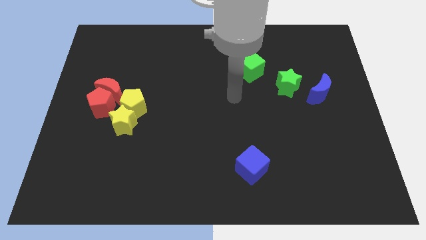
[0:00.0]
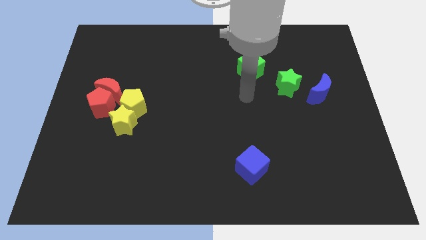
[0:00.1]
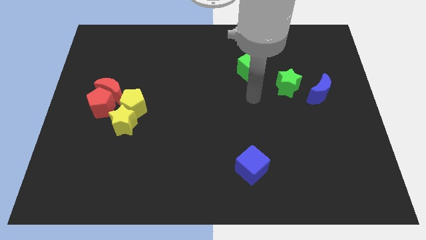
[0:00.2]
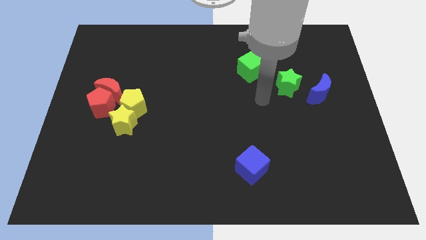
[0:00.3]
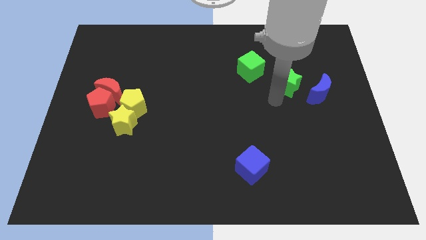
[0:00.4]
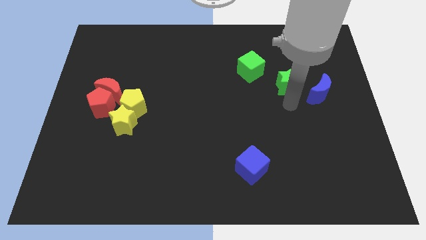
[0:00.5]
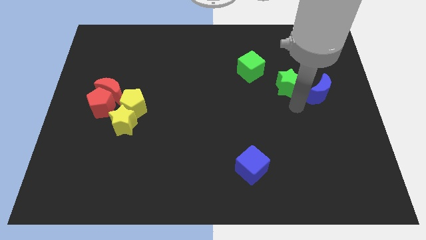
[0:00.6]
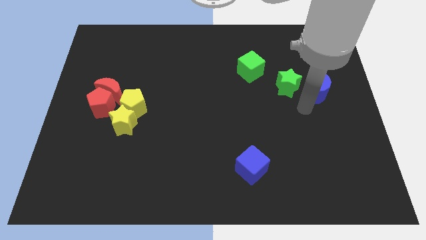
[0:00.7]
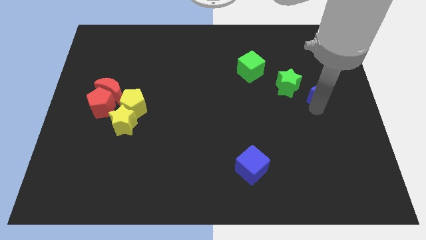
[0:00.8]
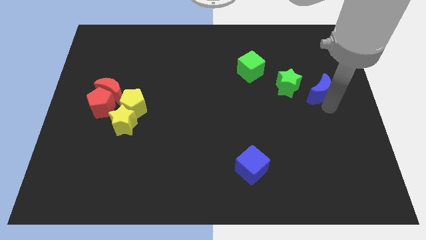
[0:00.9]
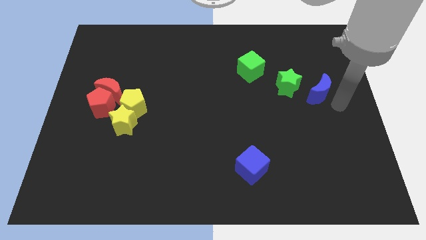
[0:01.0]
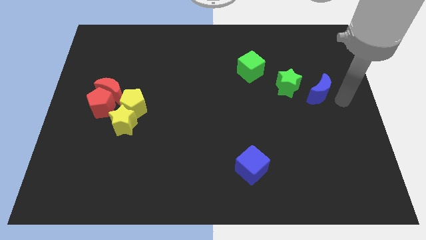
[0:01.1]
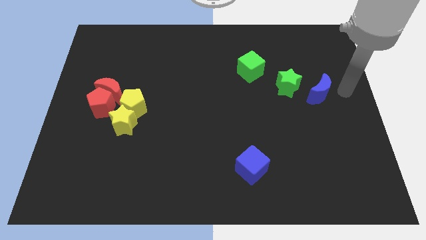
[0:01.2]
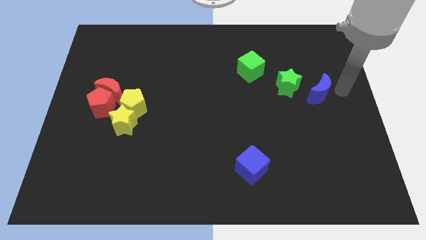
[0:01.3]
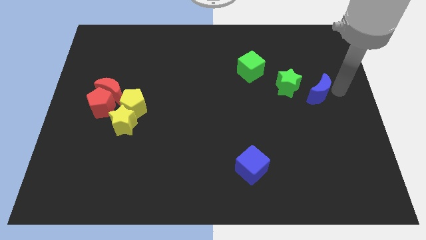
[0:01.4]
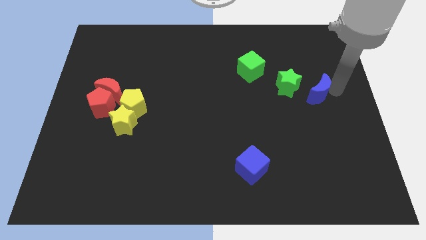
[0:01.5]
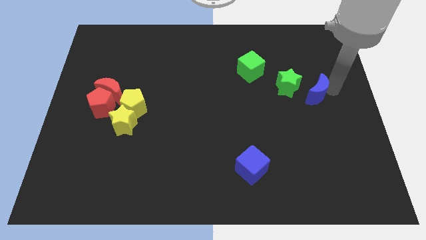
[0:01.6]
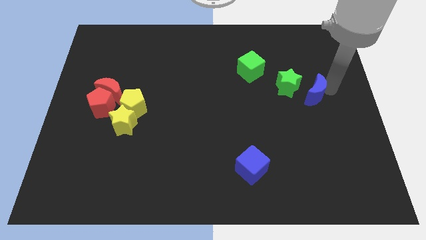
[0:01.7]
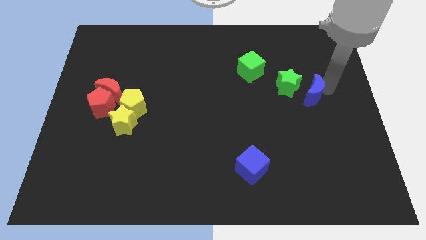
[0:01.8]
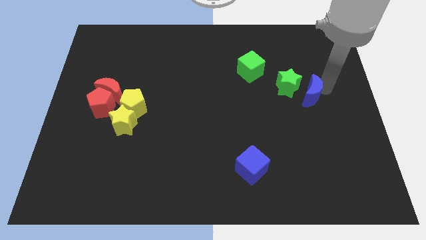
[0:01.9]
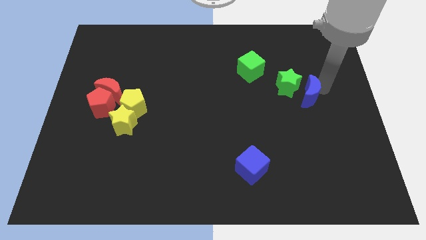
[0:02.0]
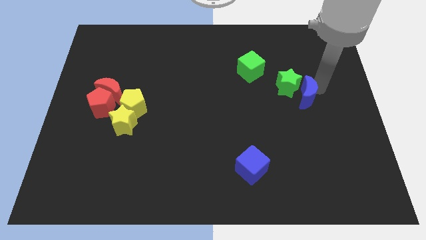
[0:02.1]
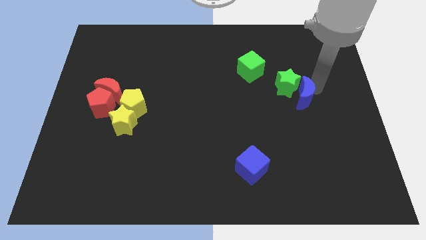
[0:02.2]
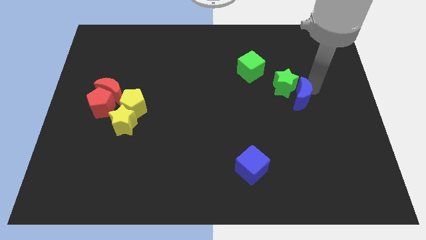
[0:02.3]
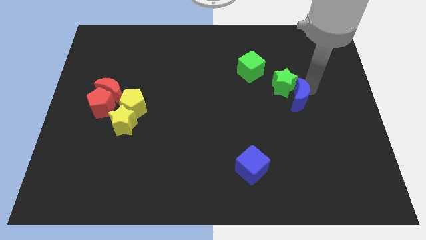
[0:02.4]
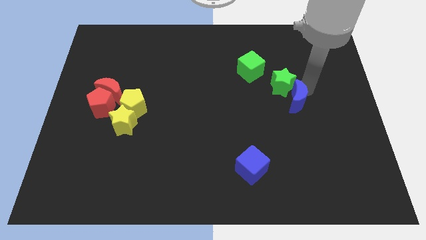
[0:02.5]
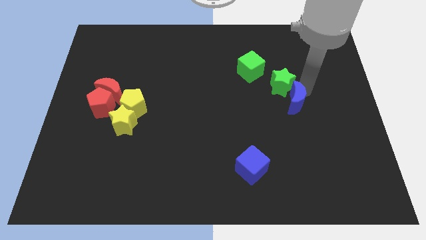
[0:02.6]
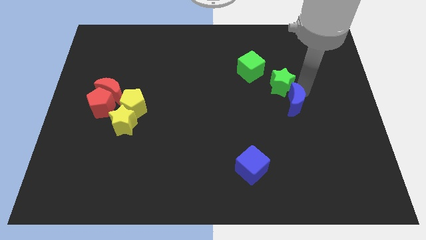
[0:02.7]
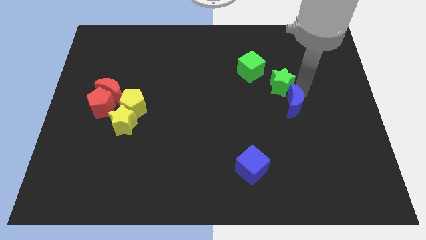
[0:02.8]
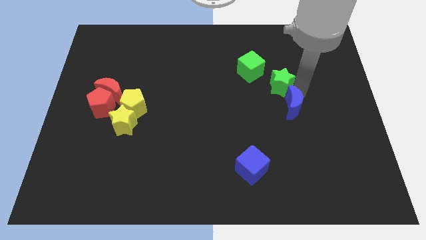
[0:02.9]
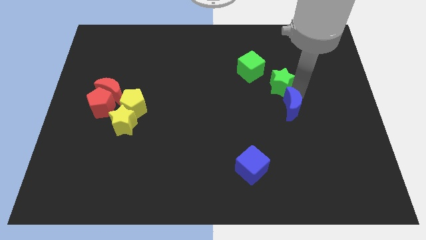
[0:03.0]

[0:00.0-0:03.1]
slide the blue moon slightly left

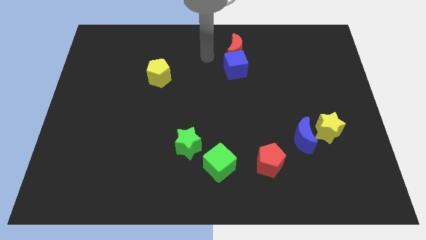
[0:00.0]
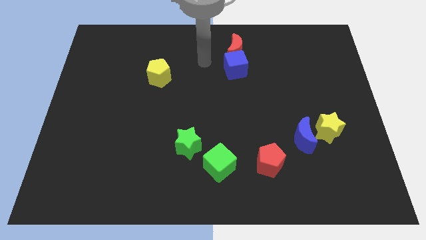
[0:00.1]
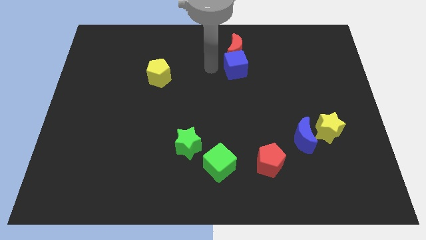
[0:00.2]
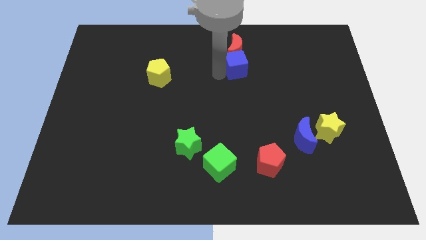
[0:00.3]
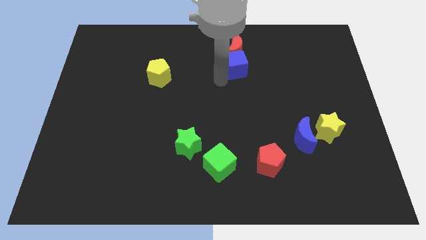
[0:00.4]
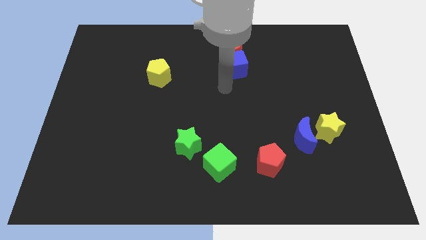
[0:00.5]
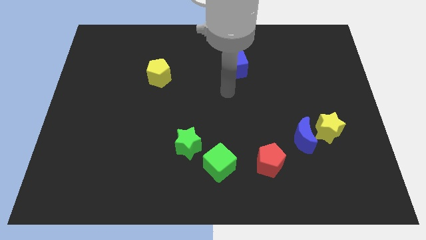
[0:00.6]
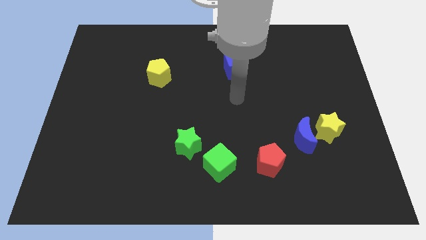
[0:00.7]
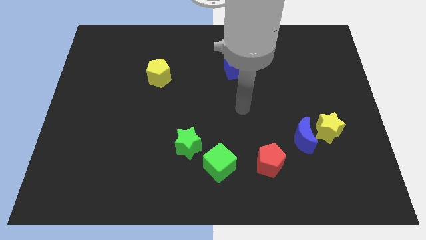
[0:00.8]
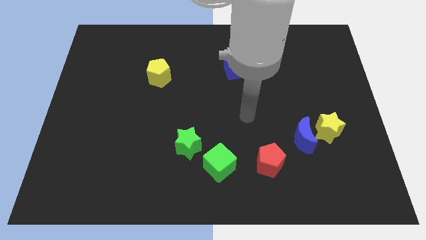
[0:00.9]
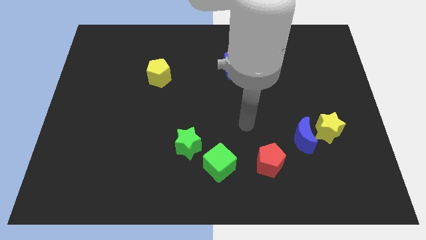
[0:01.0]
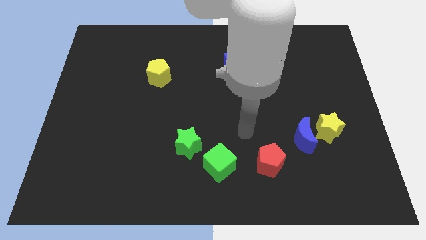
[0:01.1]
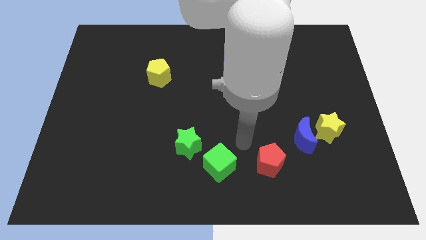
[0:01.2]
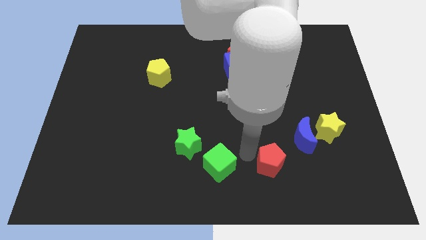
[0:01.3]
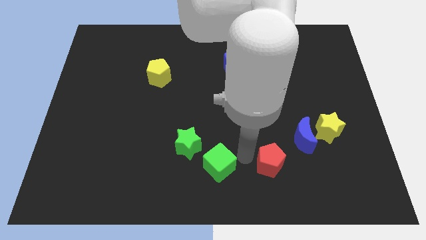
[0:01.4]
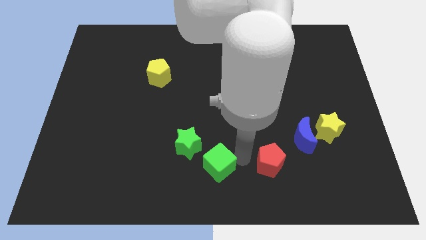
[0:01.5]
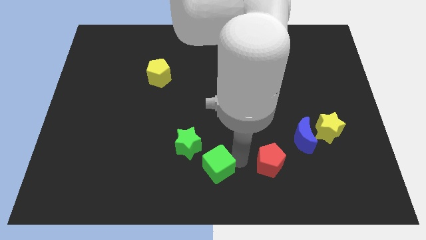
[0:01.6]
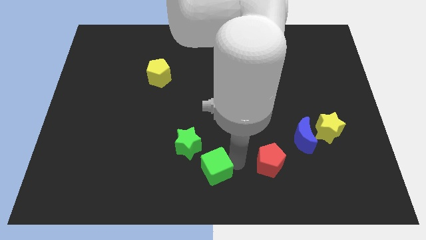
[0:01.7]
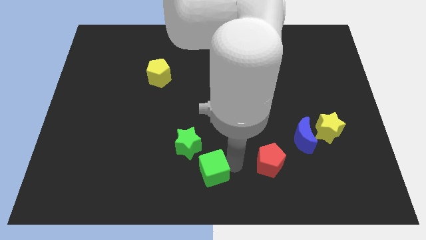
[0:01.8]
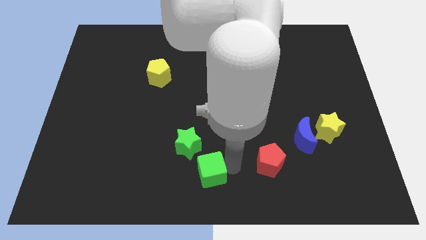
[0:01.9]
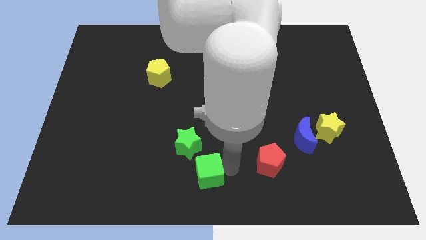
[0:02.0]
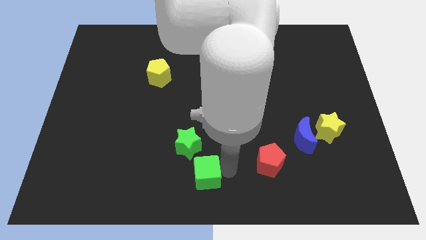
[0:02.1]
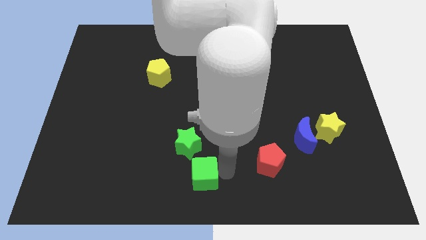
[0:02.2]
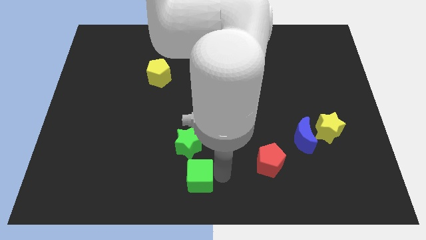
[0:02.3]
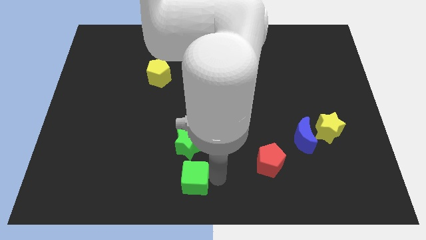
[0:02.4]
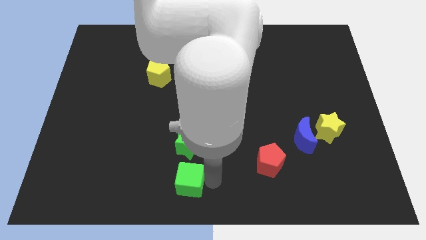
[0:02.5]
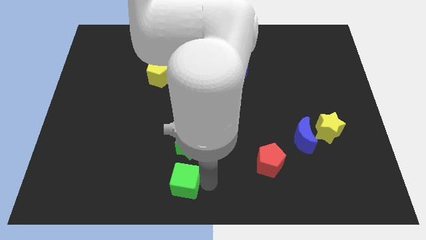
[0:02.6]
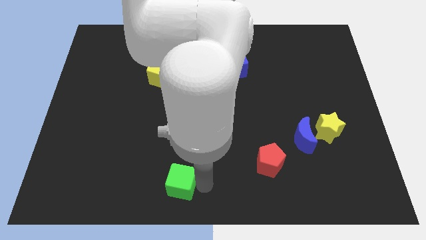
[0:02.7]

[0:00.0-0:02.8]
move the green cube to the left slightly

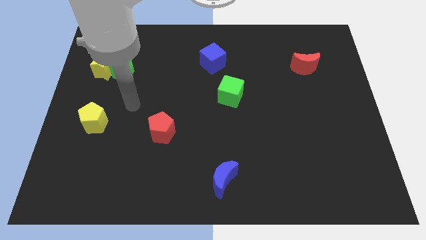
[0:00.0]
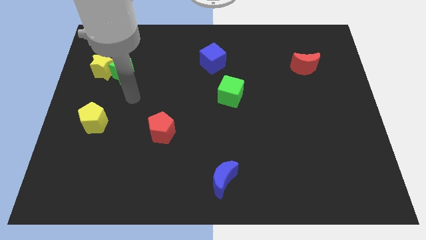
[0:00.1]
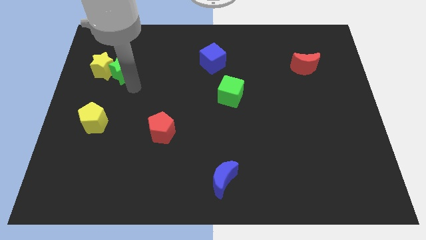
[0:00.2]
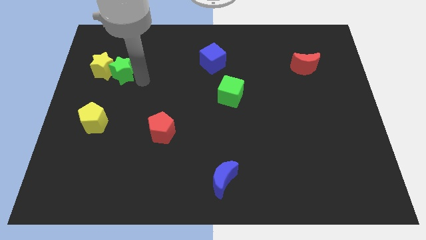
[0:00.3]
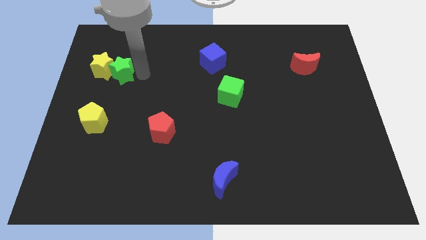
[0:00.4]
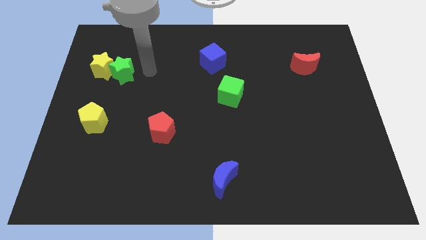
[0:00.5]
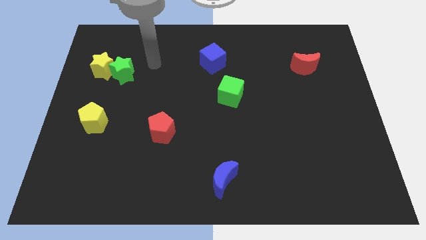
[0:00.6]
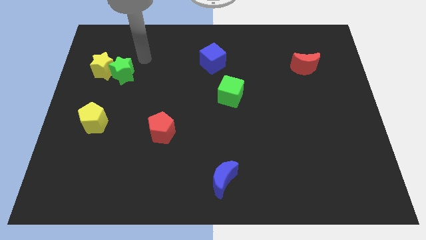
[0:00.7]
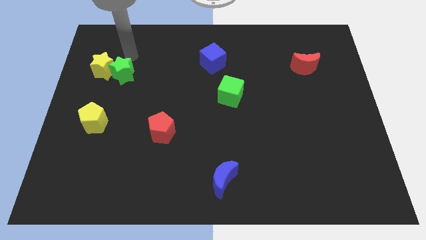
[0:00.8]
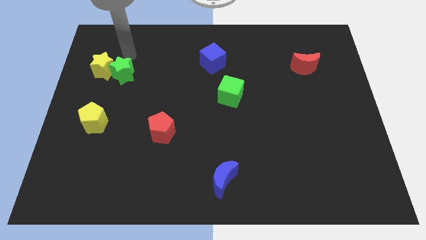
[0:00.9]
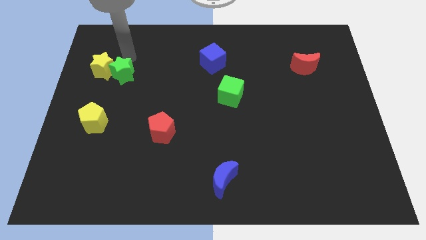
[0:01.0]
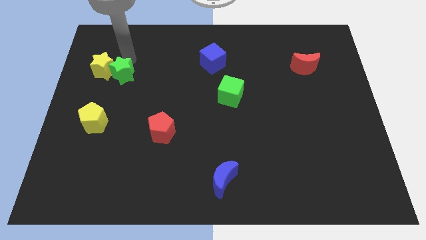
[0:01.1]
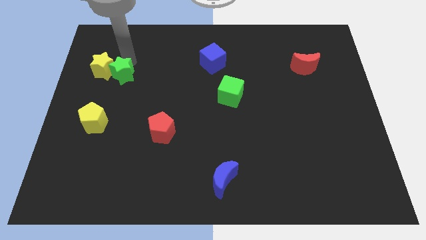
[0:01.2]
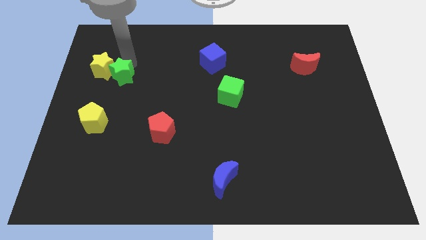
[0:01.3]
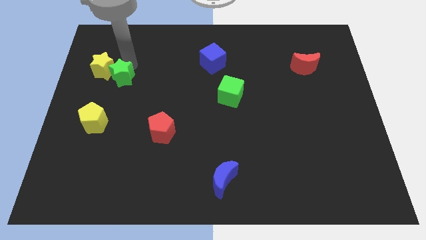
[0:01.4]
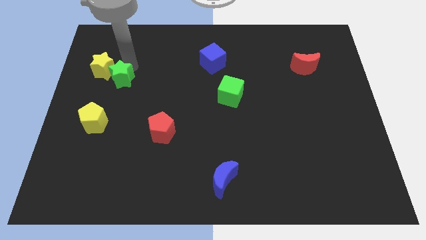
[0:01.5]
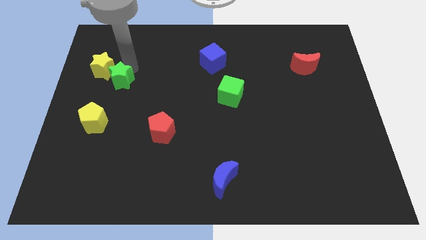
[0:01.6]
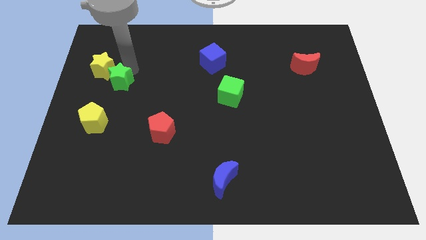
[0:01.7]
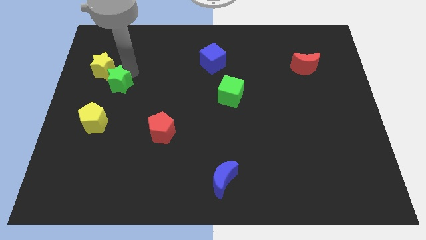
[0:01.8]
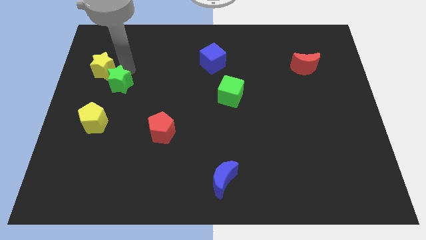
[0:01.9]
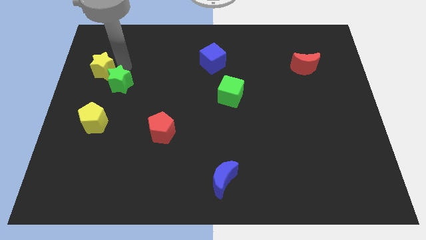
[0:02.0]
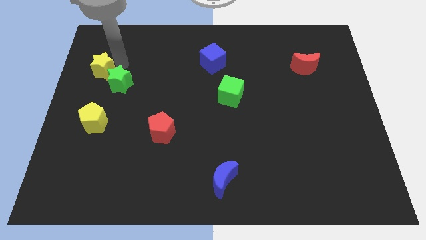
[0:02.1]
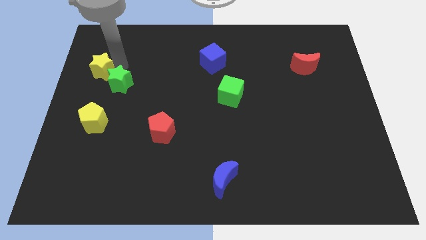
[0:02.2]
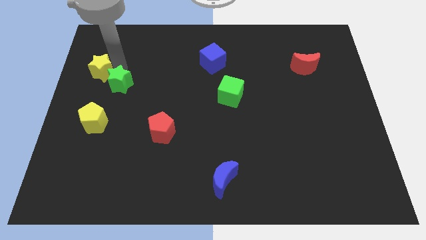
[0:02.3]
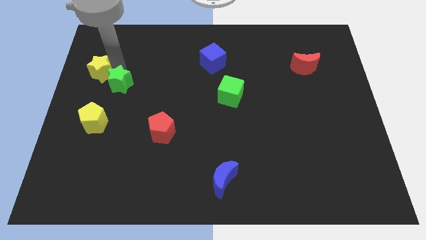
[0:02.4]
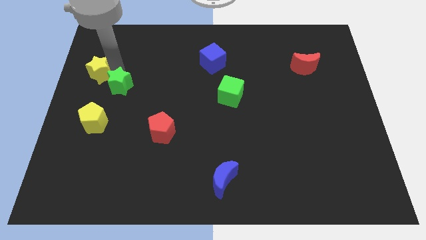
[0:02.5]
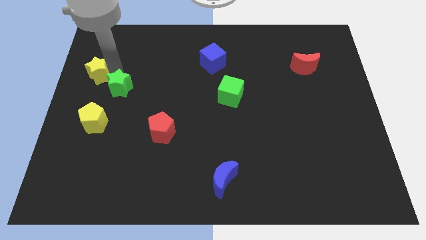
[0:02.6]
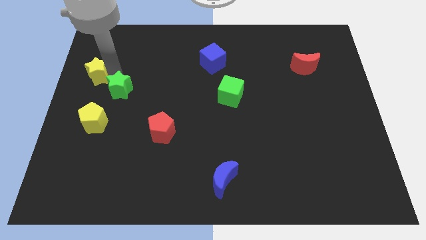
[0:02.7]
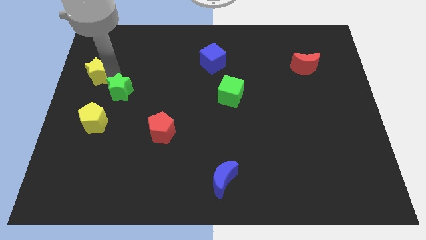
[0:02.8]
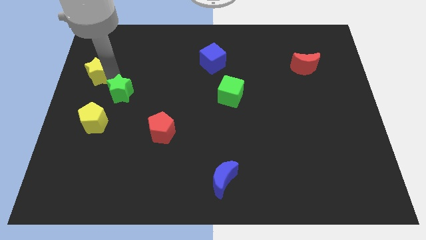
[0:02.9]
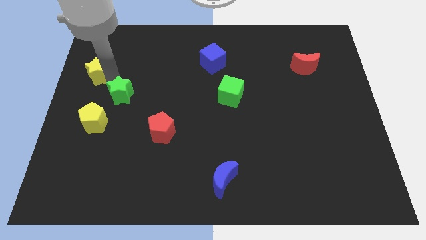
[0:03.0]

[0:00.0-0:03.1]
slide the green star downwards slightly
